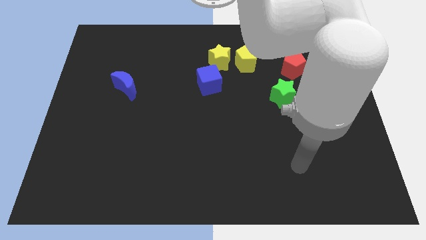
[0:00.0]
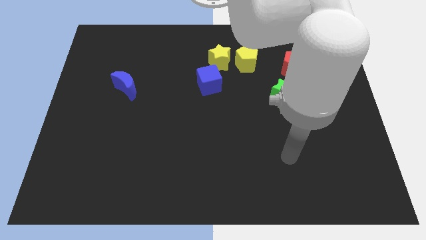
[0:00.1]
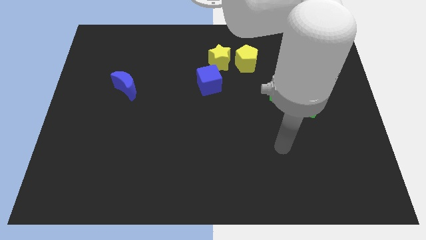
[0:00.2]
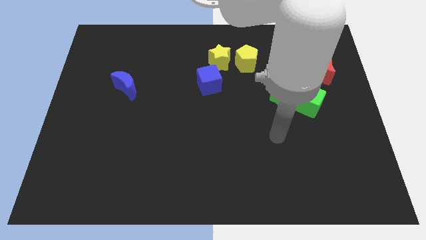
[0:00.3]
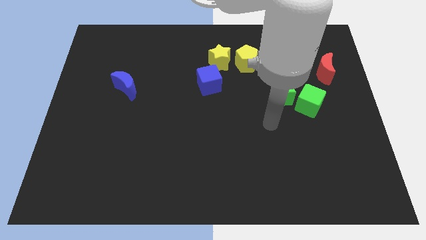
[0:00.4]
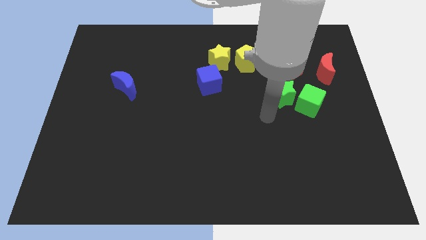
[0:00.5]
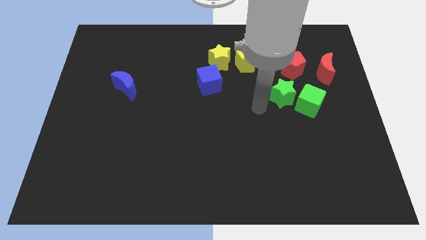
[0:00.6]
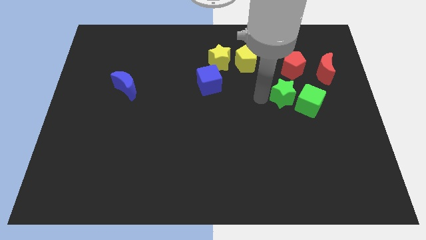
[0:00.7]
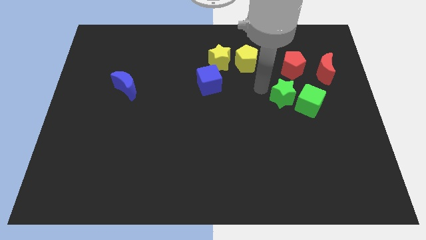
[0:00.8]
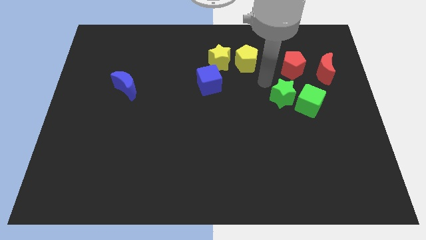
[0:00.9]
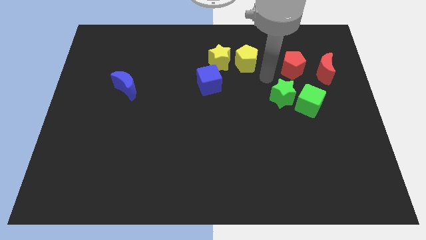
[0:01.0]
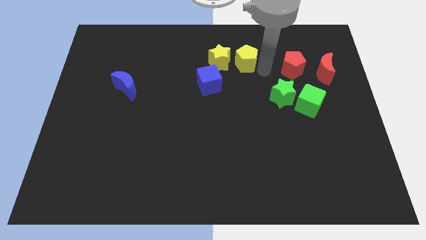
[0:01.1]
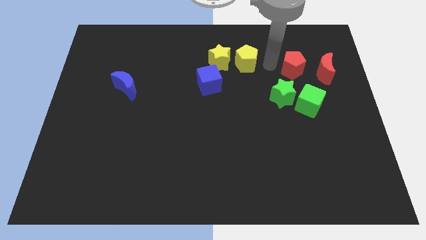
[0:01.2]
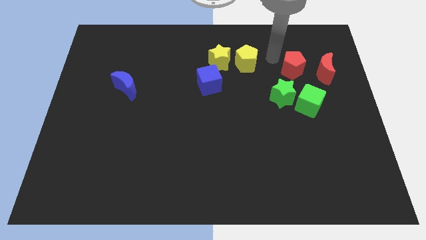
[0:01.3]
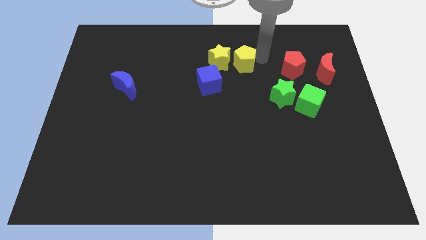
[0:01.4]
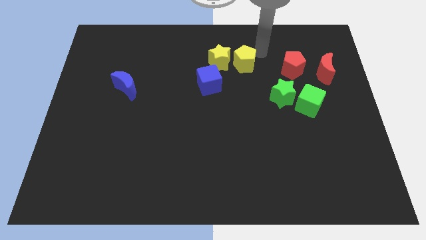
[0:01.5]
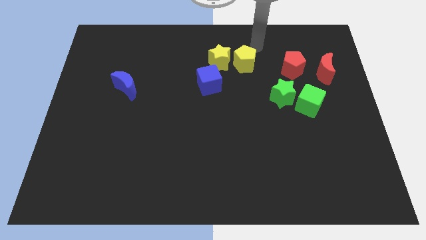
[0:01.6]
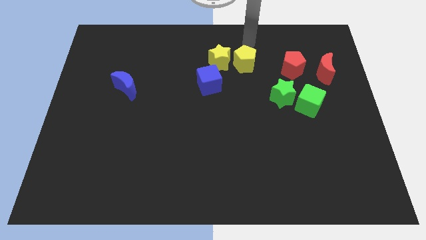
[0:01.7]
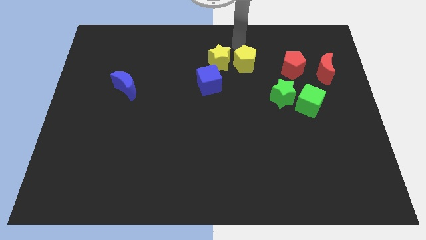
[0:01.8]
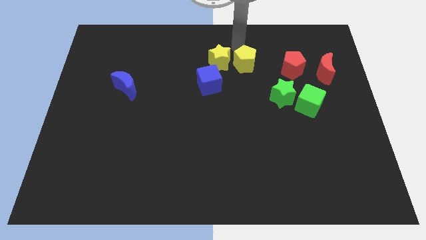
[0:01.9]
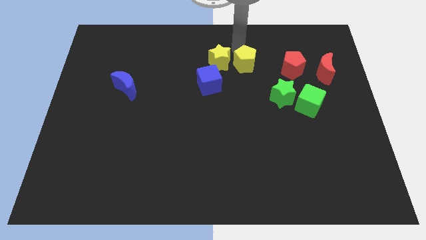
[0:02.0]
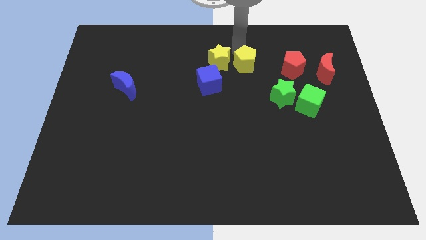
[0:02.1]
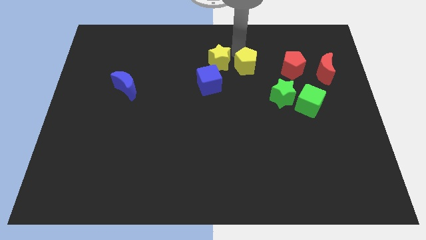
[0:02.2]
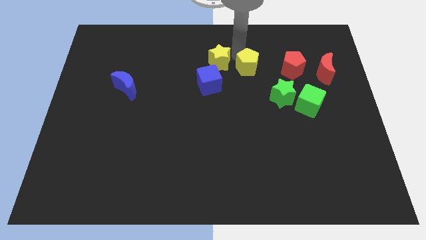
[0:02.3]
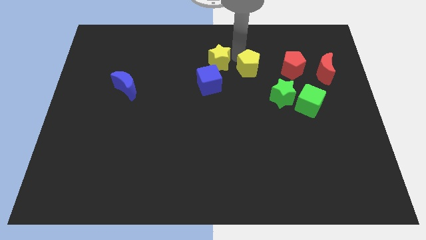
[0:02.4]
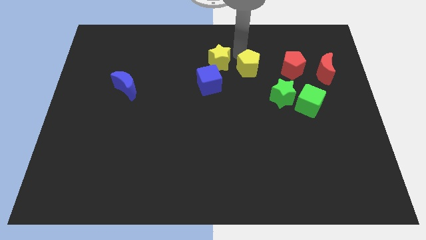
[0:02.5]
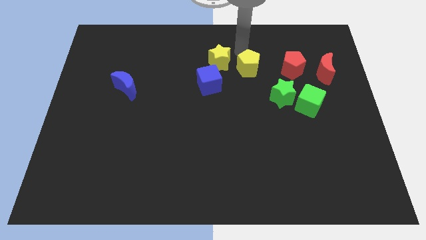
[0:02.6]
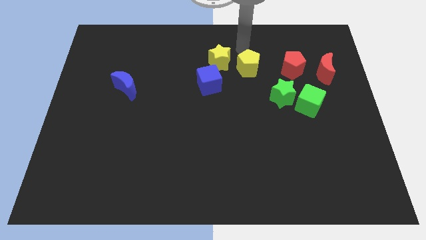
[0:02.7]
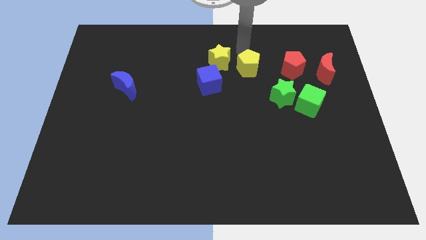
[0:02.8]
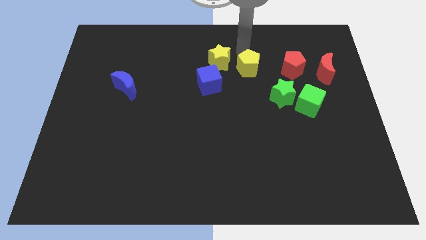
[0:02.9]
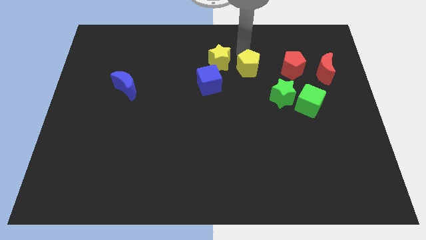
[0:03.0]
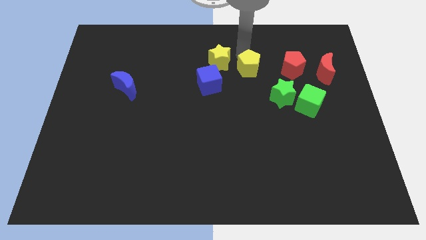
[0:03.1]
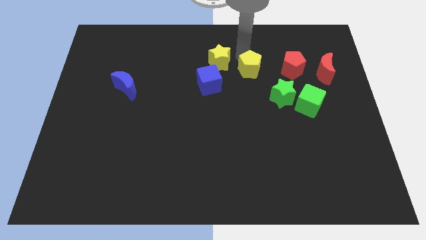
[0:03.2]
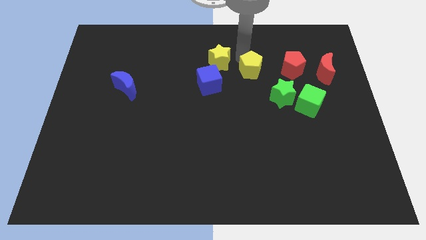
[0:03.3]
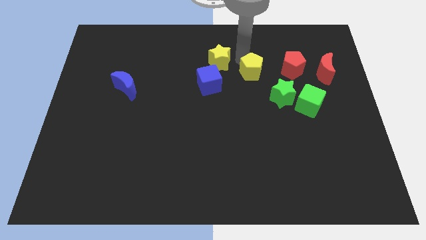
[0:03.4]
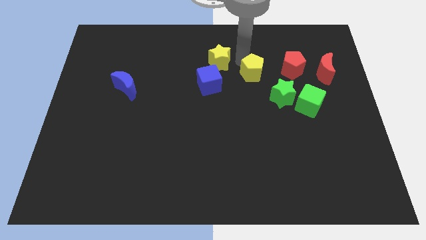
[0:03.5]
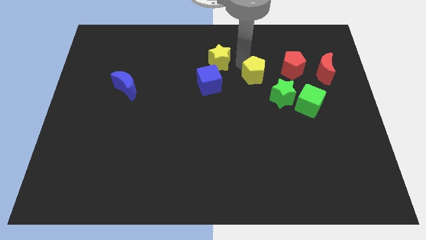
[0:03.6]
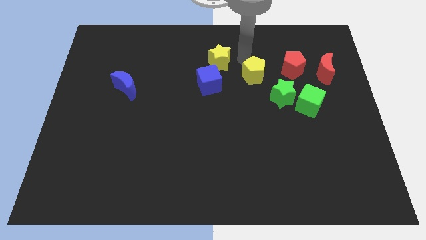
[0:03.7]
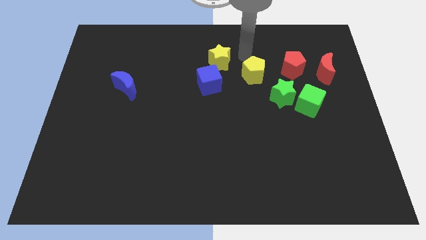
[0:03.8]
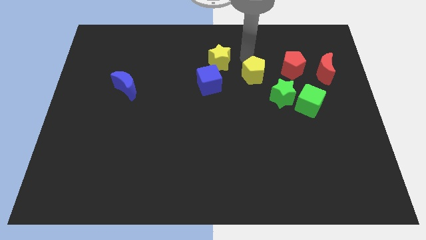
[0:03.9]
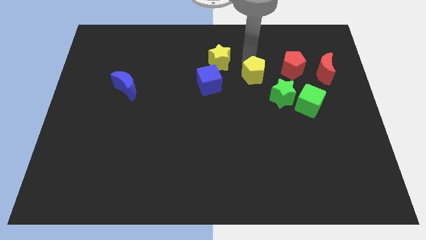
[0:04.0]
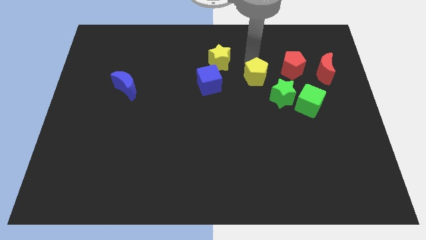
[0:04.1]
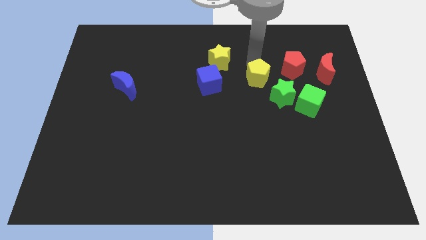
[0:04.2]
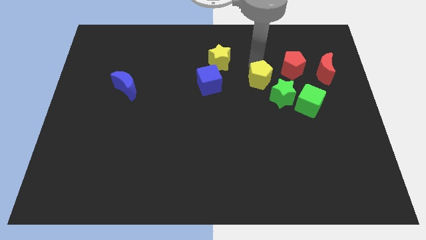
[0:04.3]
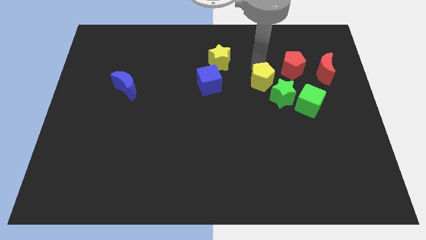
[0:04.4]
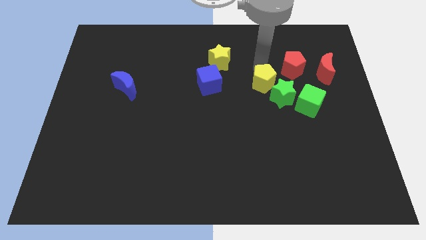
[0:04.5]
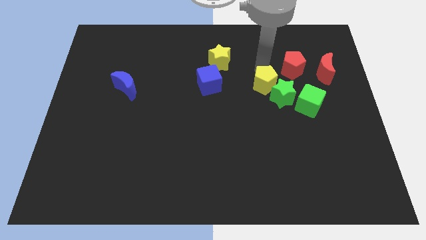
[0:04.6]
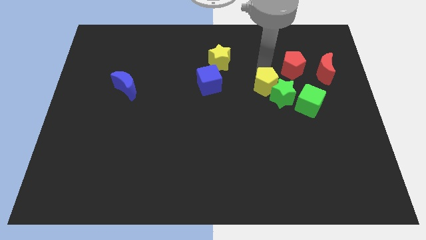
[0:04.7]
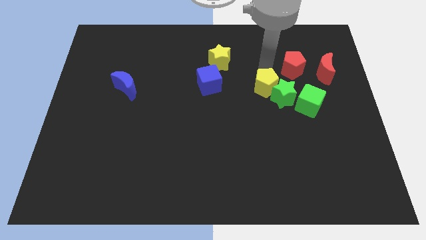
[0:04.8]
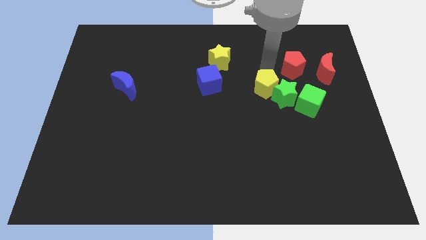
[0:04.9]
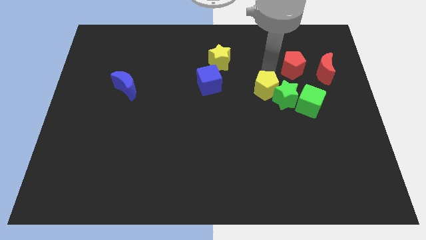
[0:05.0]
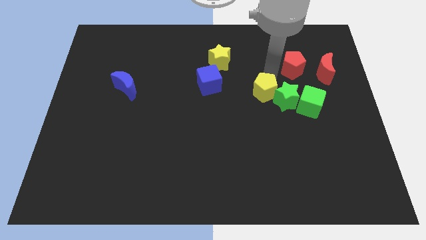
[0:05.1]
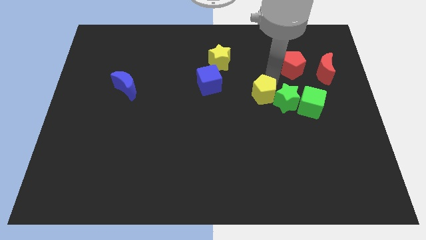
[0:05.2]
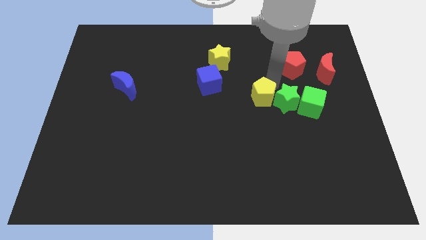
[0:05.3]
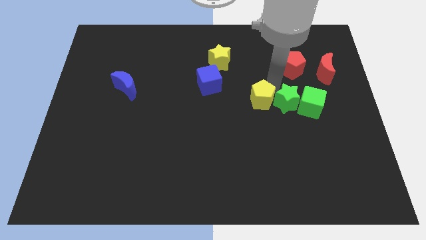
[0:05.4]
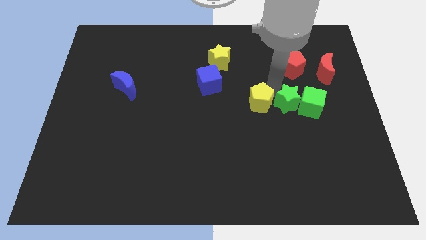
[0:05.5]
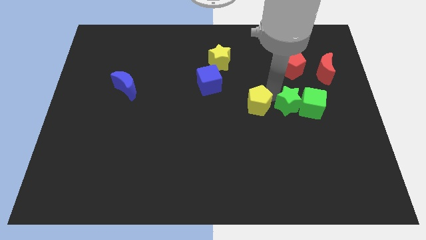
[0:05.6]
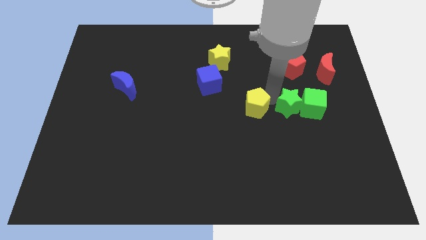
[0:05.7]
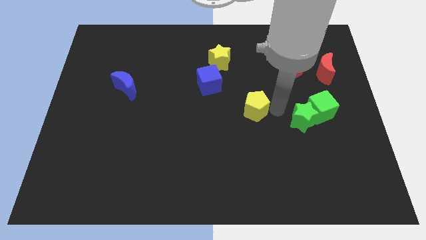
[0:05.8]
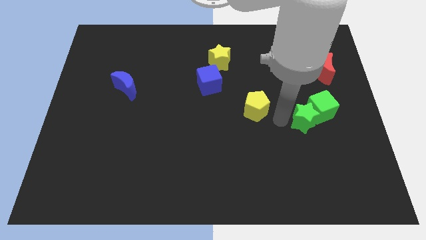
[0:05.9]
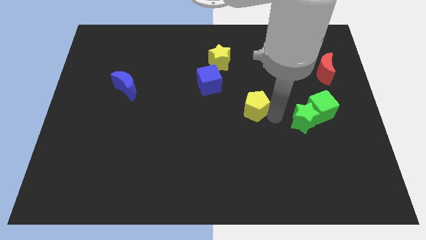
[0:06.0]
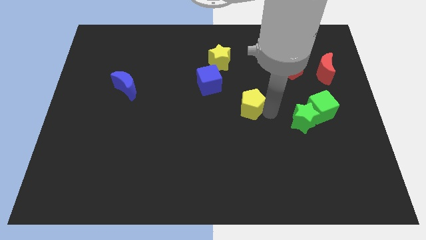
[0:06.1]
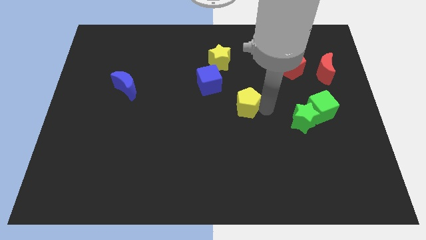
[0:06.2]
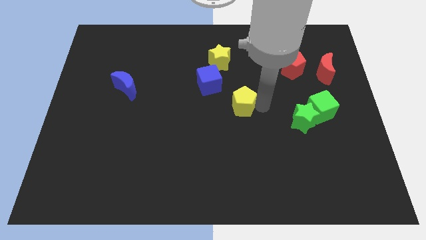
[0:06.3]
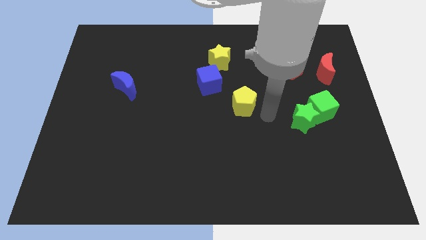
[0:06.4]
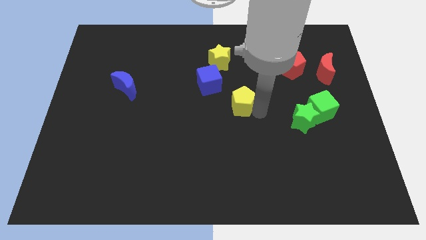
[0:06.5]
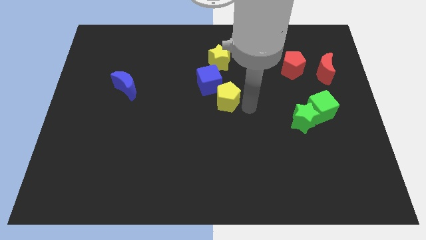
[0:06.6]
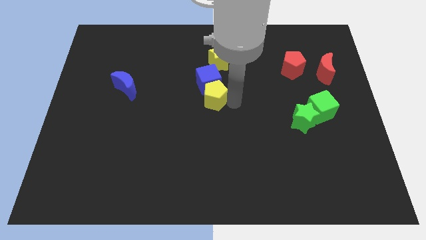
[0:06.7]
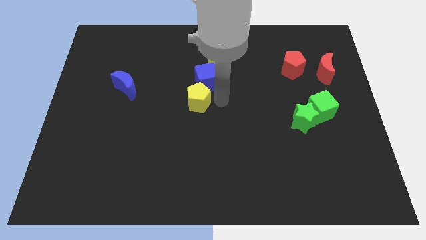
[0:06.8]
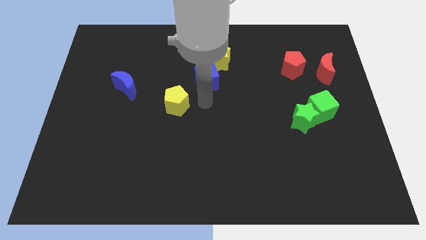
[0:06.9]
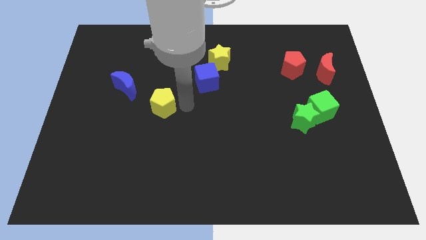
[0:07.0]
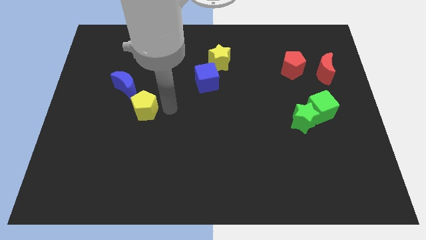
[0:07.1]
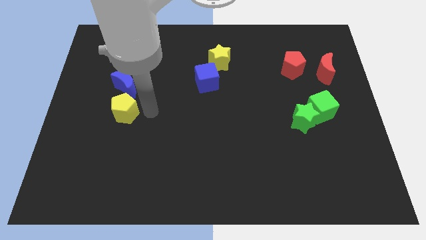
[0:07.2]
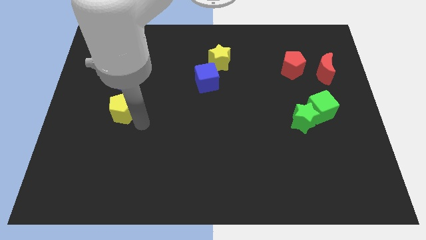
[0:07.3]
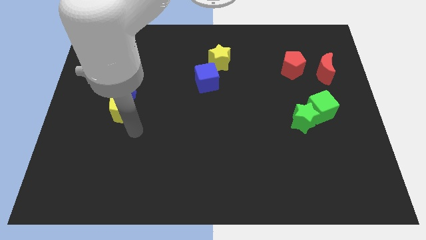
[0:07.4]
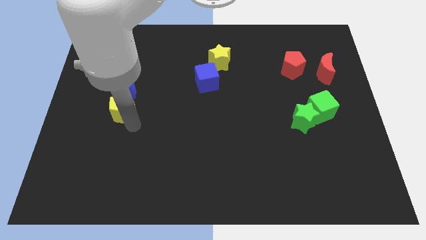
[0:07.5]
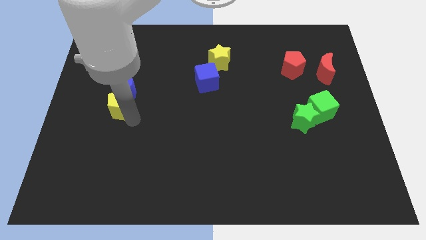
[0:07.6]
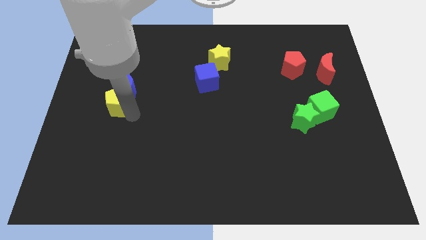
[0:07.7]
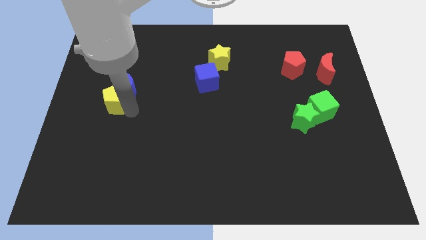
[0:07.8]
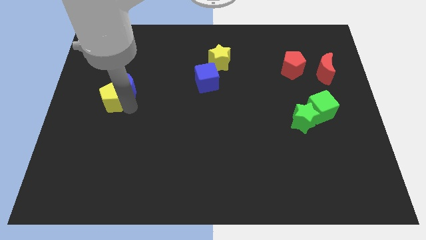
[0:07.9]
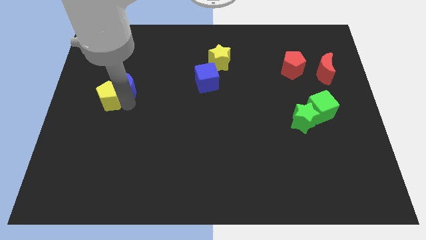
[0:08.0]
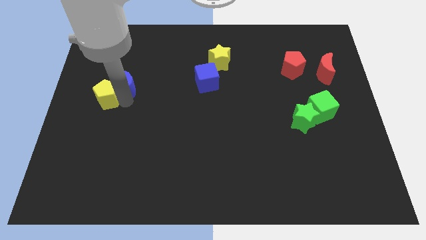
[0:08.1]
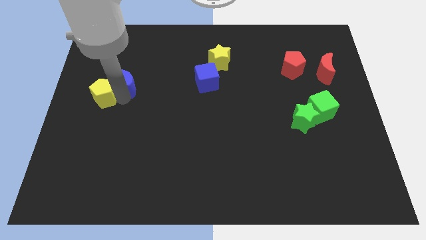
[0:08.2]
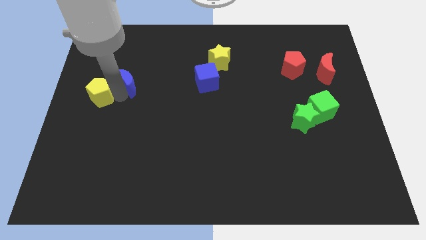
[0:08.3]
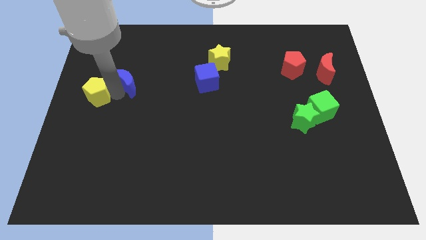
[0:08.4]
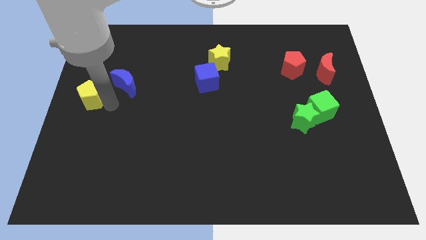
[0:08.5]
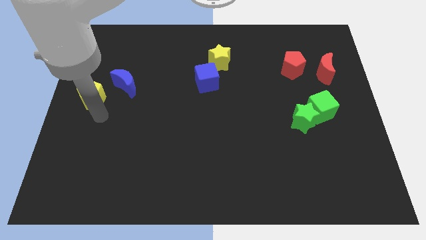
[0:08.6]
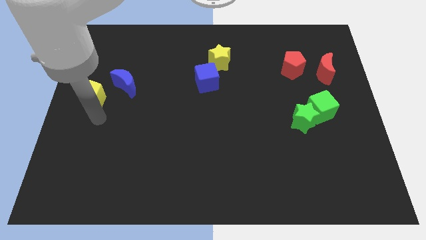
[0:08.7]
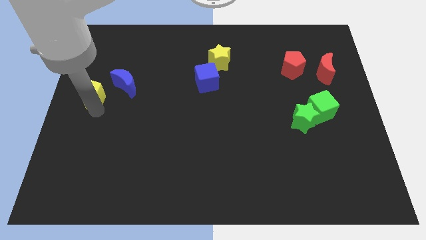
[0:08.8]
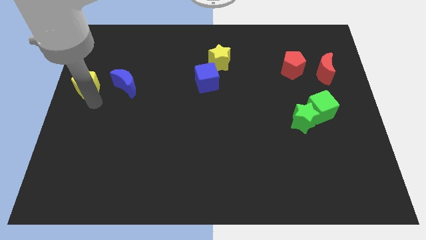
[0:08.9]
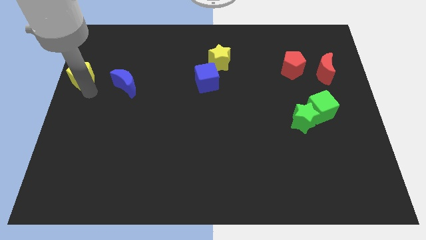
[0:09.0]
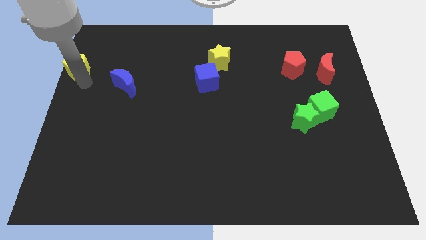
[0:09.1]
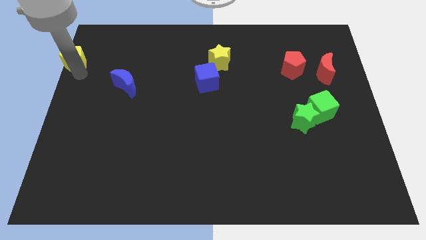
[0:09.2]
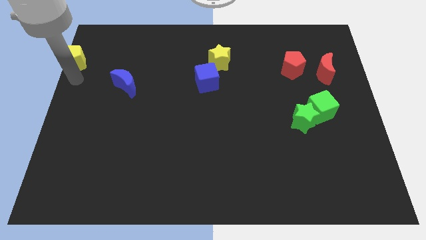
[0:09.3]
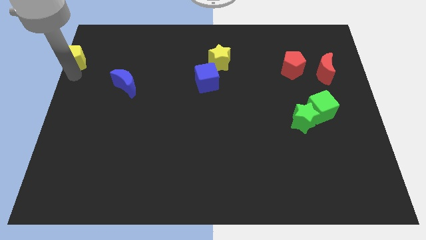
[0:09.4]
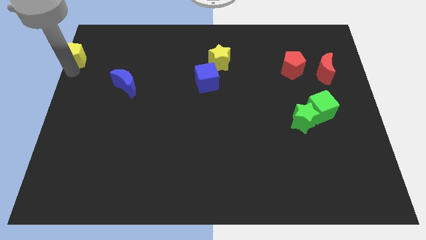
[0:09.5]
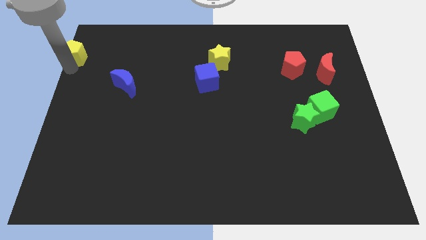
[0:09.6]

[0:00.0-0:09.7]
put the yellow pentagon to the top left of the board
